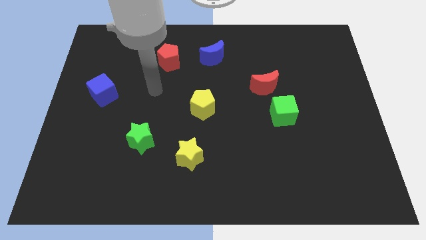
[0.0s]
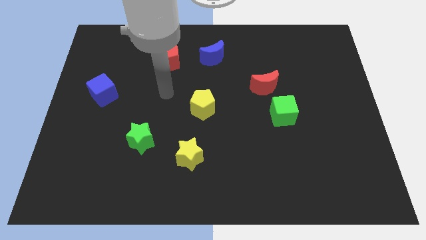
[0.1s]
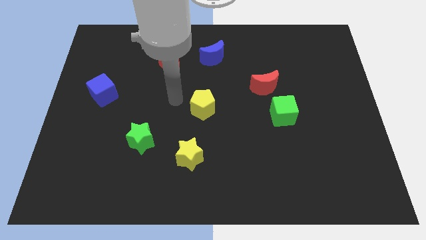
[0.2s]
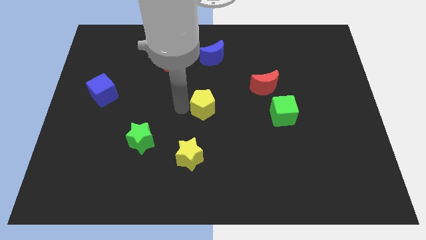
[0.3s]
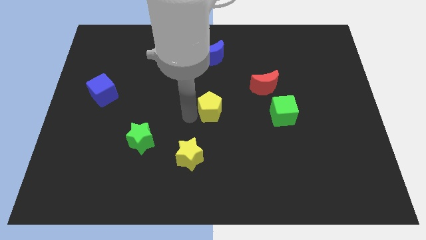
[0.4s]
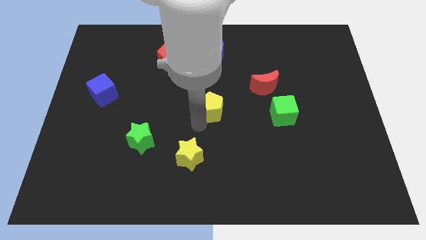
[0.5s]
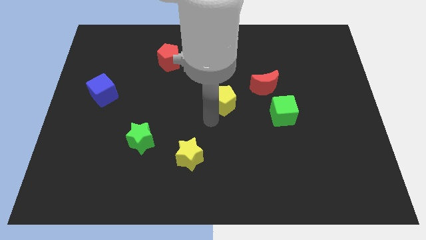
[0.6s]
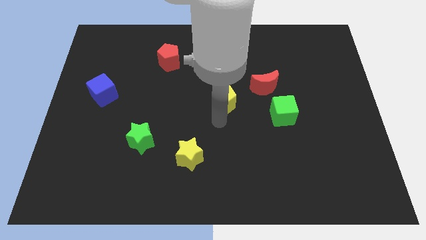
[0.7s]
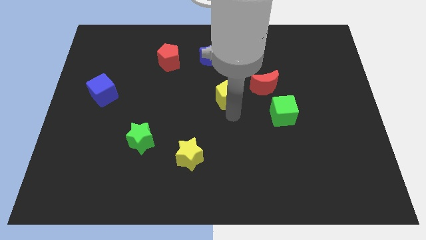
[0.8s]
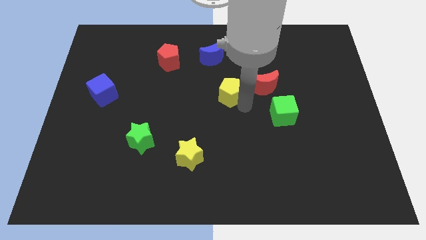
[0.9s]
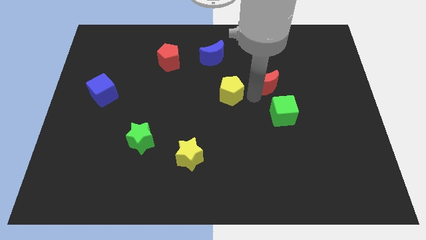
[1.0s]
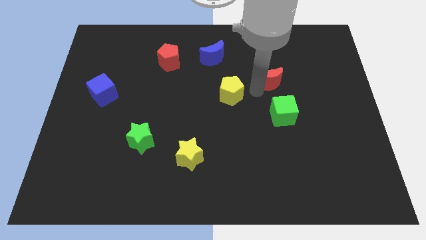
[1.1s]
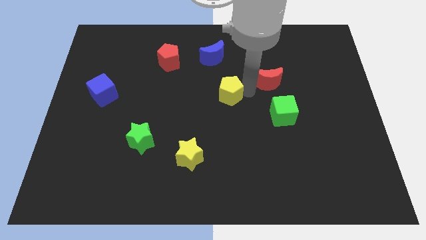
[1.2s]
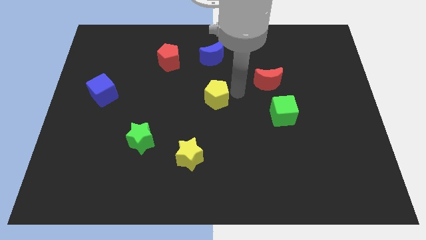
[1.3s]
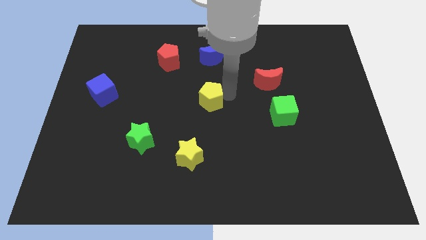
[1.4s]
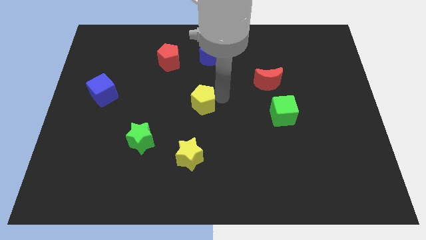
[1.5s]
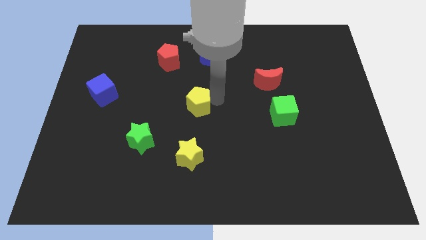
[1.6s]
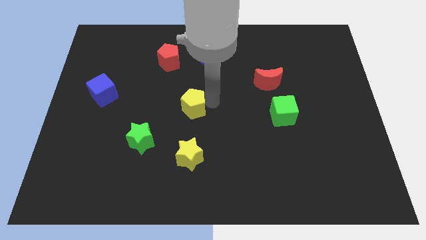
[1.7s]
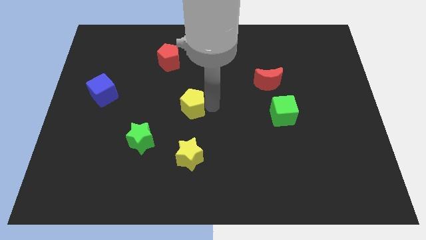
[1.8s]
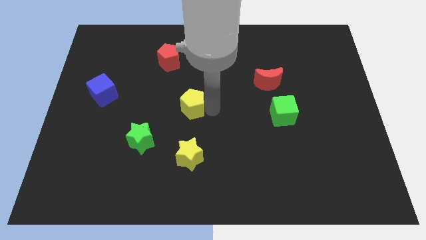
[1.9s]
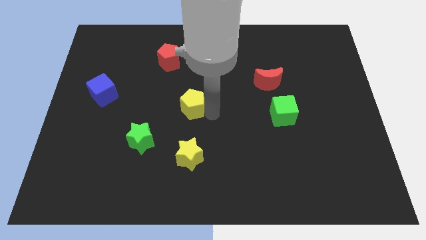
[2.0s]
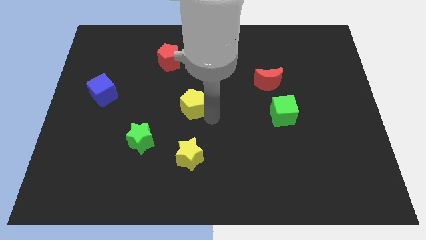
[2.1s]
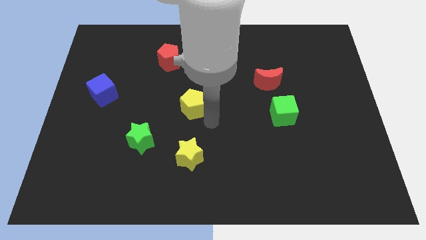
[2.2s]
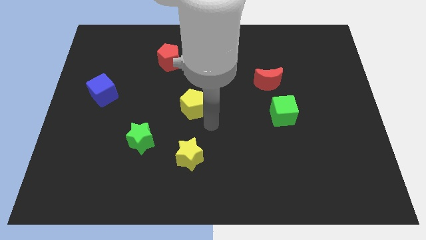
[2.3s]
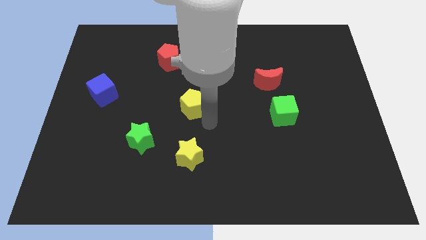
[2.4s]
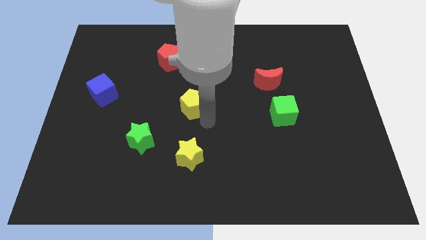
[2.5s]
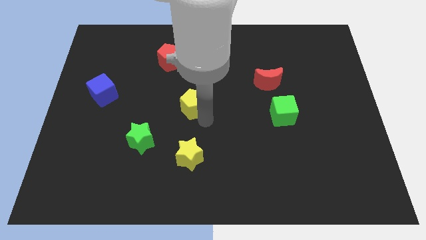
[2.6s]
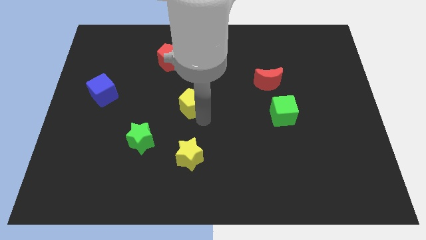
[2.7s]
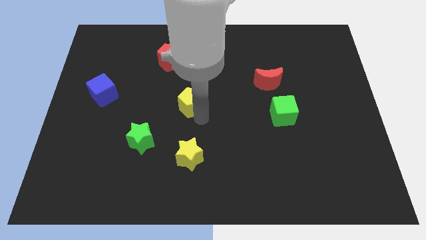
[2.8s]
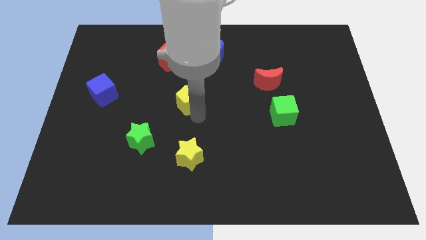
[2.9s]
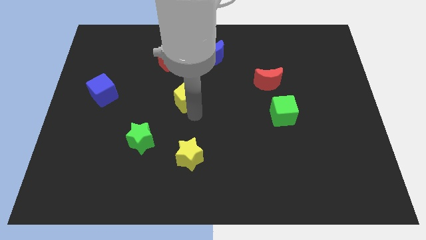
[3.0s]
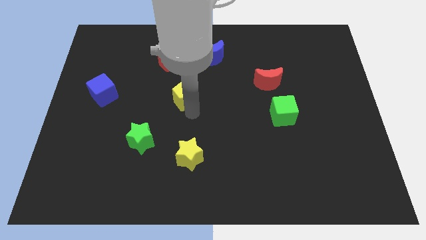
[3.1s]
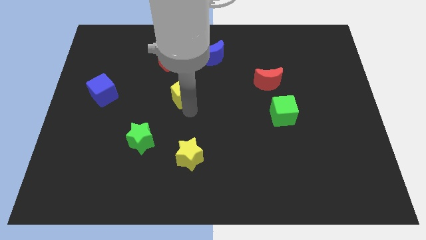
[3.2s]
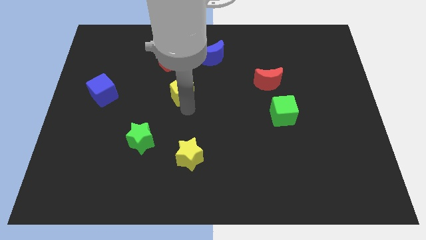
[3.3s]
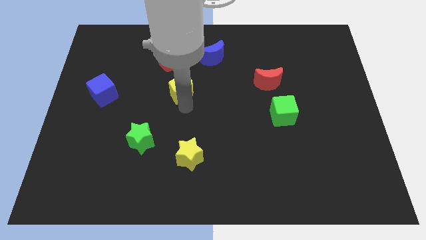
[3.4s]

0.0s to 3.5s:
slightly slide the yellow pentagon up and then to the left

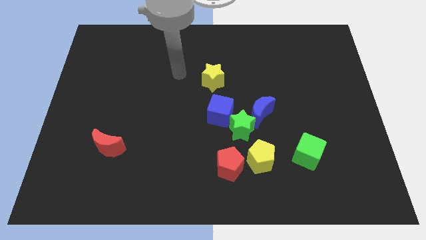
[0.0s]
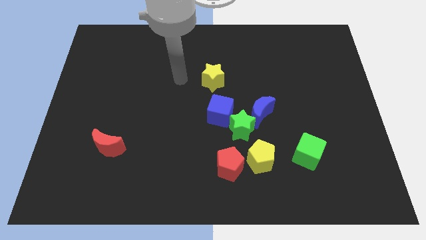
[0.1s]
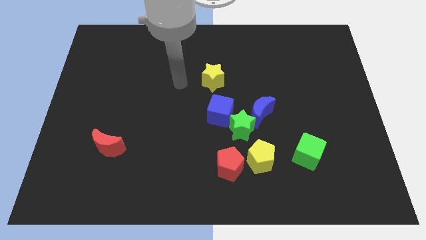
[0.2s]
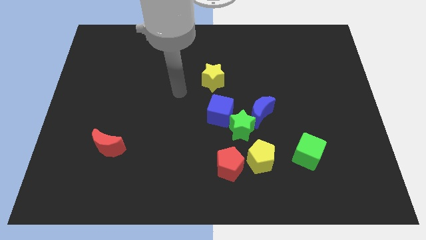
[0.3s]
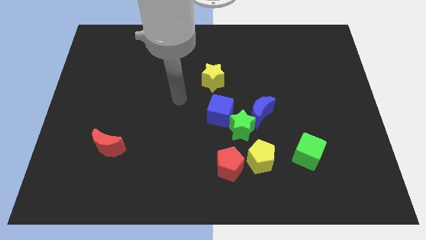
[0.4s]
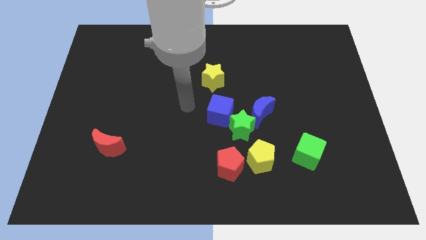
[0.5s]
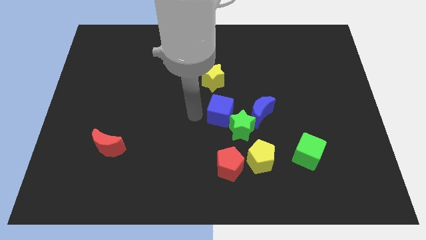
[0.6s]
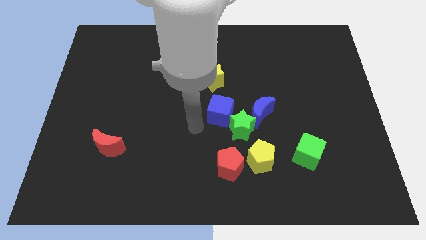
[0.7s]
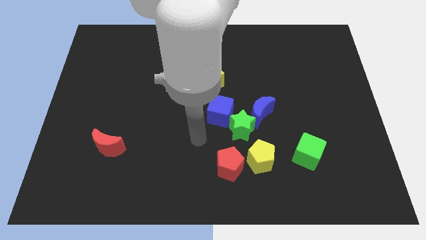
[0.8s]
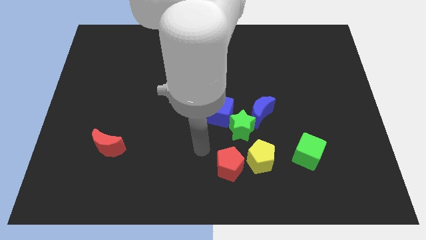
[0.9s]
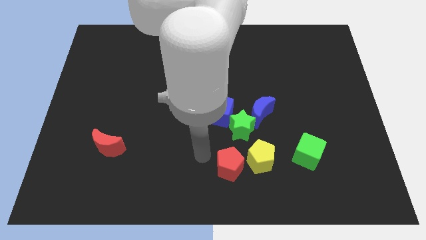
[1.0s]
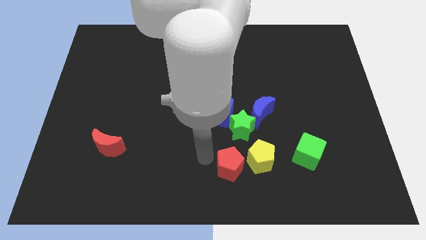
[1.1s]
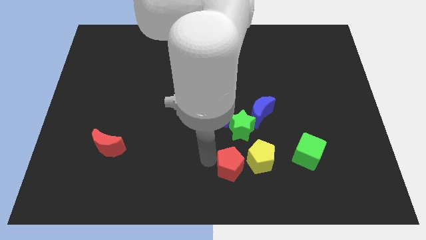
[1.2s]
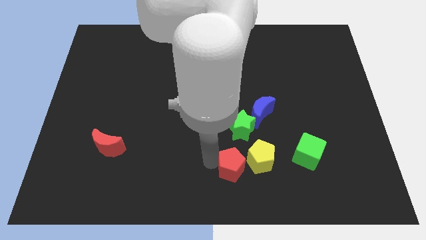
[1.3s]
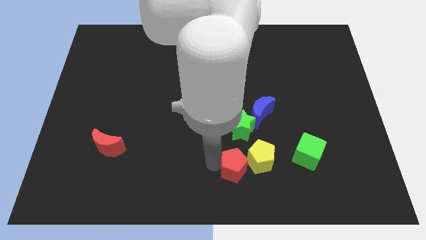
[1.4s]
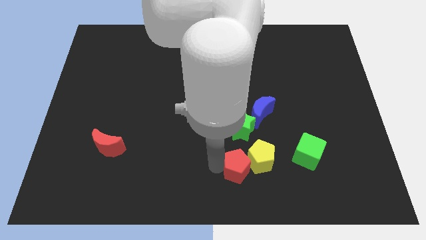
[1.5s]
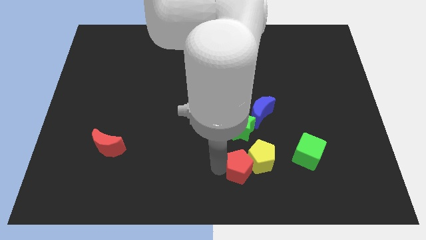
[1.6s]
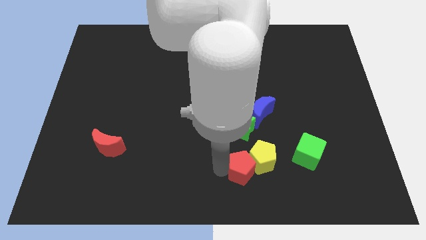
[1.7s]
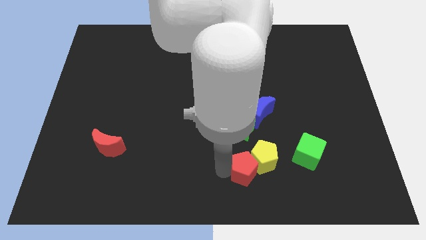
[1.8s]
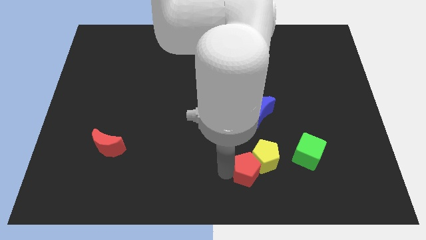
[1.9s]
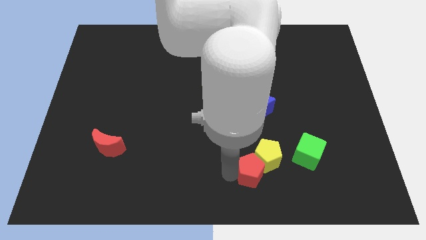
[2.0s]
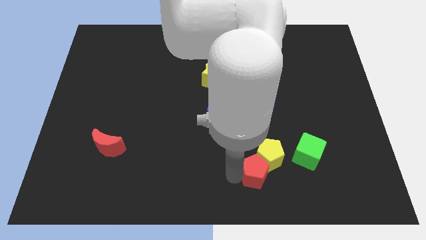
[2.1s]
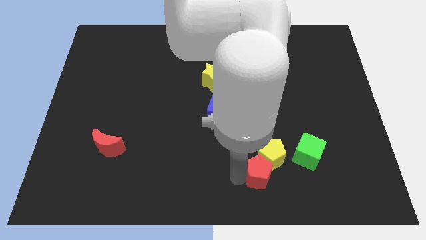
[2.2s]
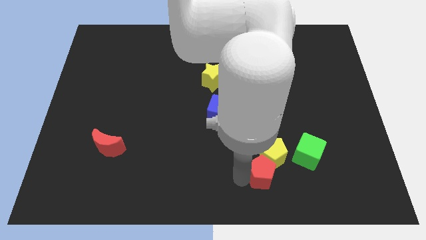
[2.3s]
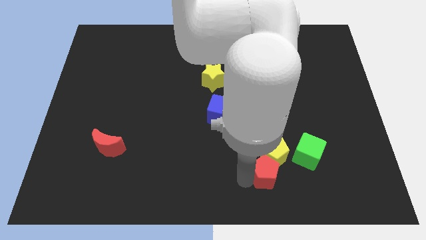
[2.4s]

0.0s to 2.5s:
push the red pentagon slightly right

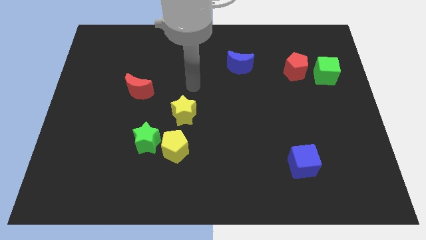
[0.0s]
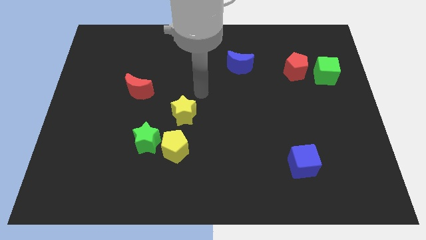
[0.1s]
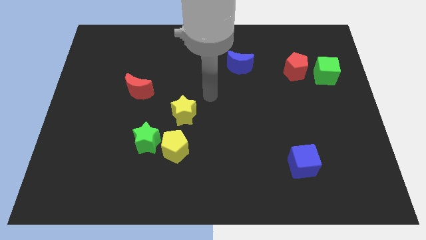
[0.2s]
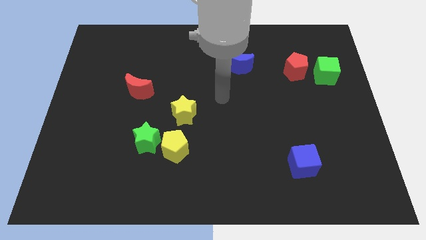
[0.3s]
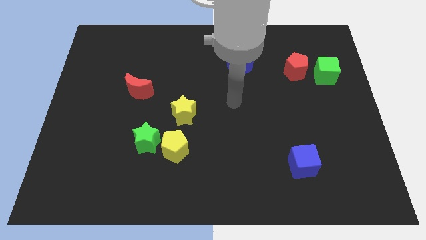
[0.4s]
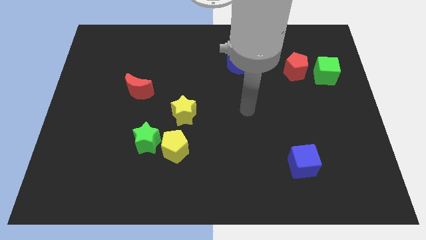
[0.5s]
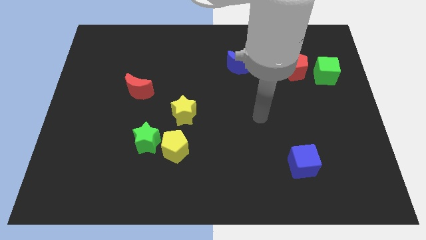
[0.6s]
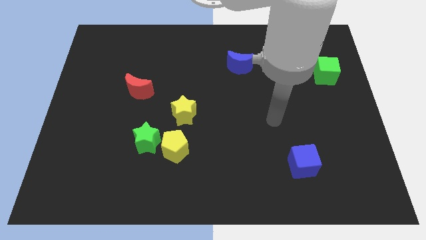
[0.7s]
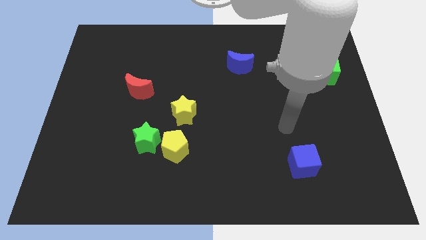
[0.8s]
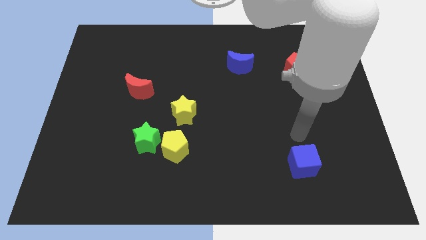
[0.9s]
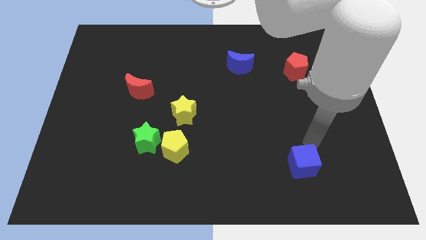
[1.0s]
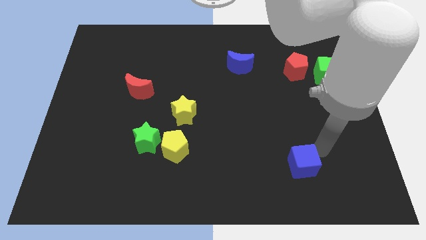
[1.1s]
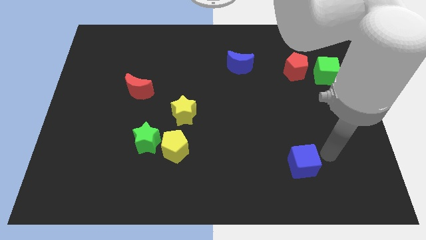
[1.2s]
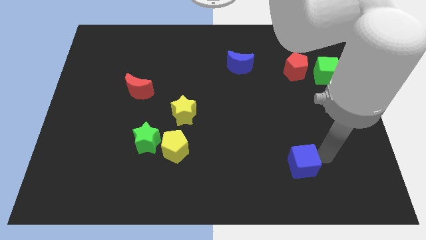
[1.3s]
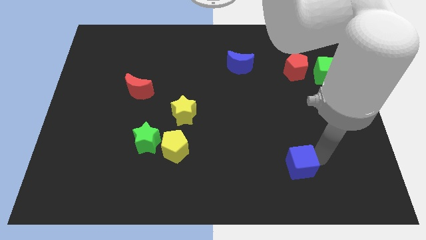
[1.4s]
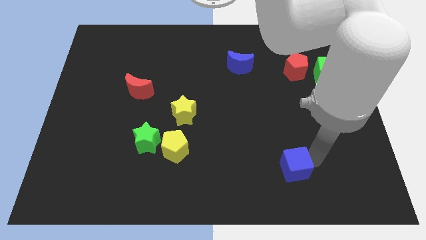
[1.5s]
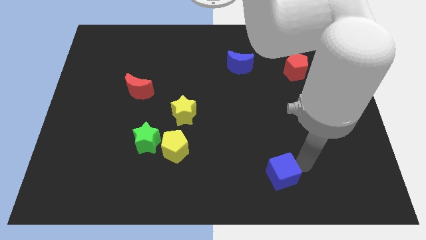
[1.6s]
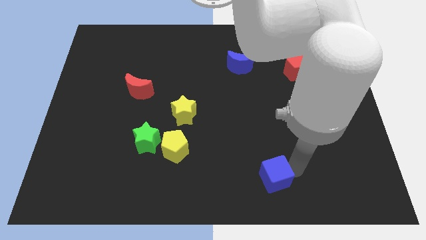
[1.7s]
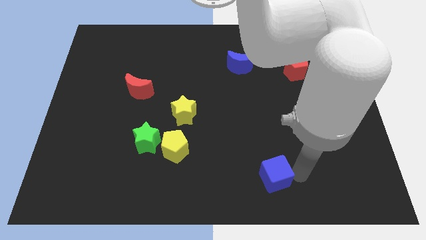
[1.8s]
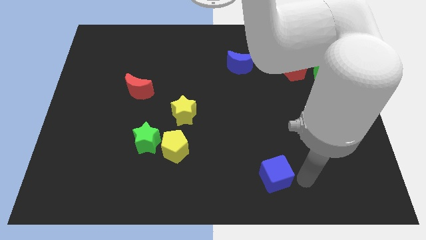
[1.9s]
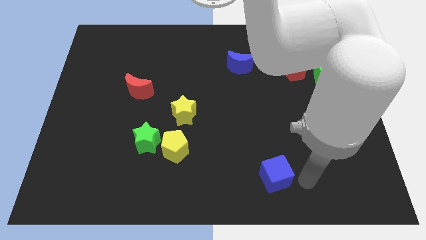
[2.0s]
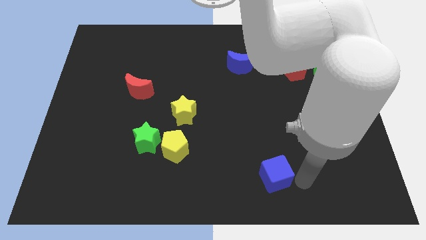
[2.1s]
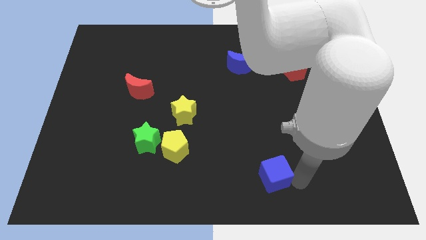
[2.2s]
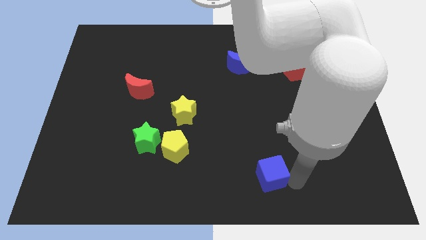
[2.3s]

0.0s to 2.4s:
slide the blue cube a little left

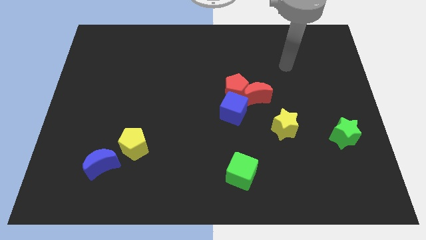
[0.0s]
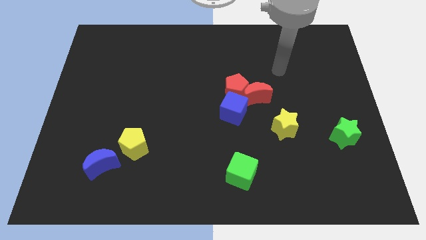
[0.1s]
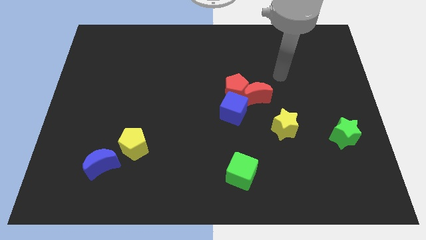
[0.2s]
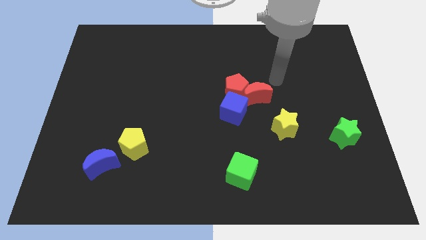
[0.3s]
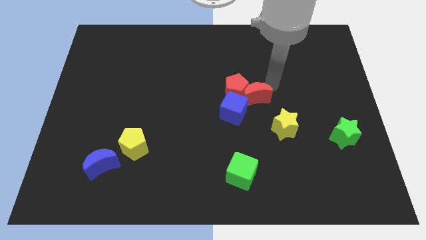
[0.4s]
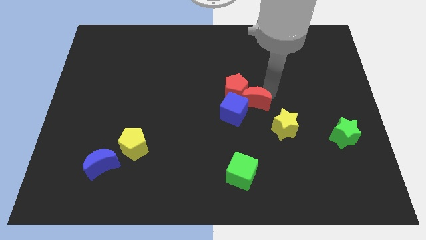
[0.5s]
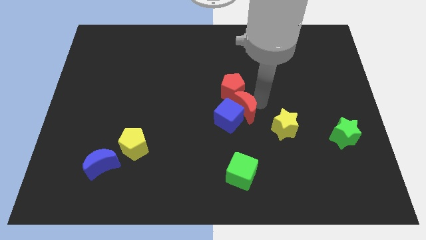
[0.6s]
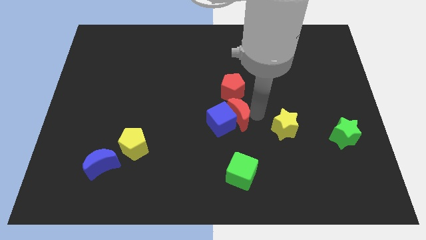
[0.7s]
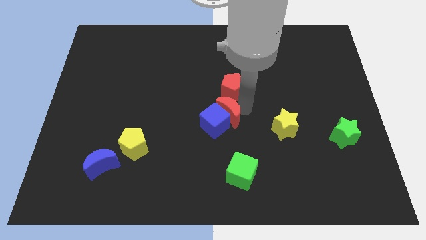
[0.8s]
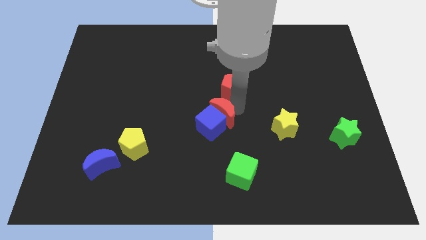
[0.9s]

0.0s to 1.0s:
slightly move the blue cube down and left diagonally
